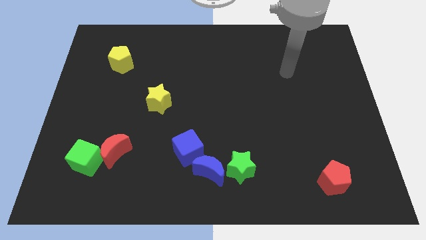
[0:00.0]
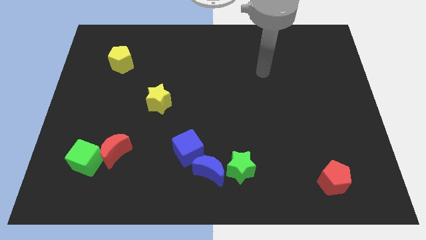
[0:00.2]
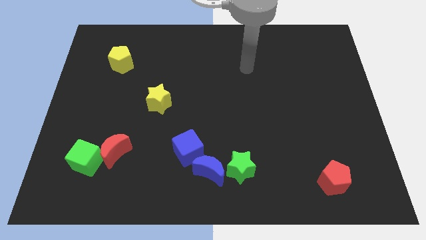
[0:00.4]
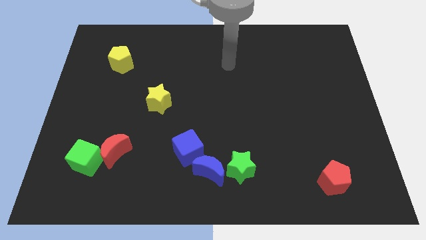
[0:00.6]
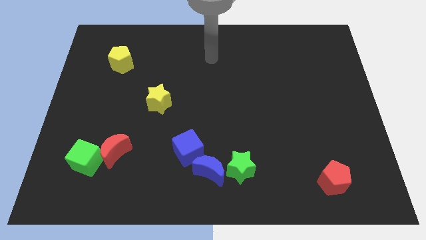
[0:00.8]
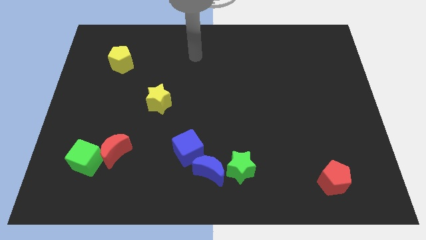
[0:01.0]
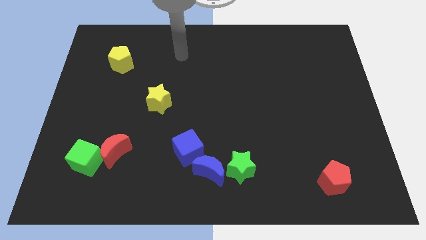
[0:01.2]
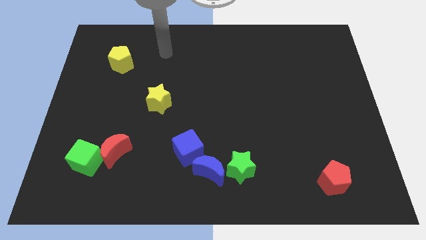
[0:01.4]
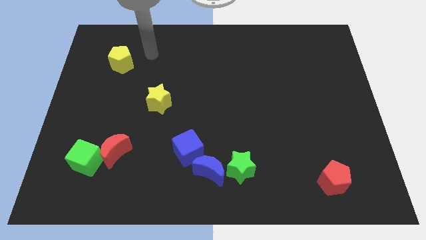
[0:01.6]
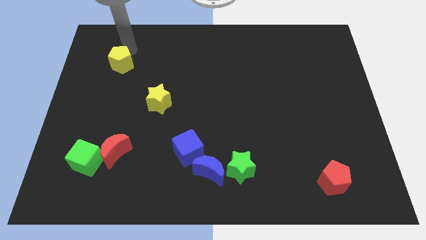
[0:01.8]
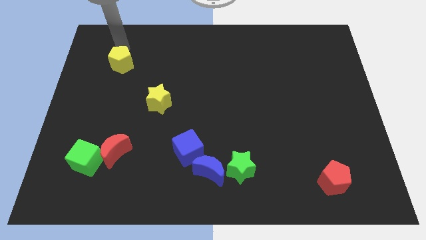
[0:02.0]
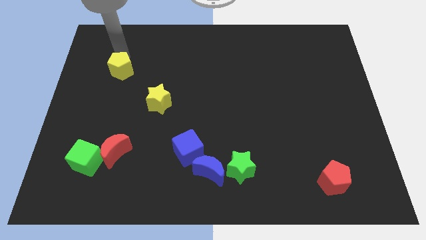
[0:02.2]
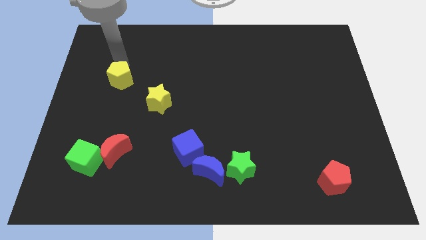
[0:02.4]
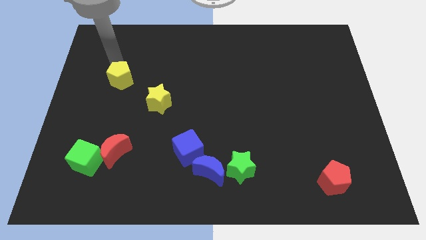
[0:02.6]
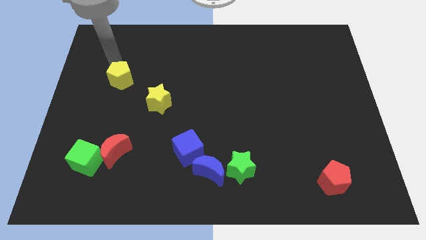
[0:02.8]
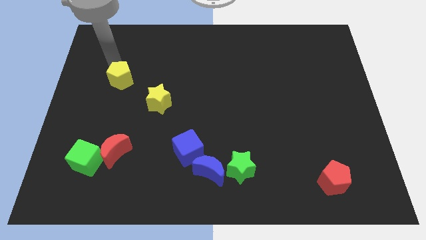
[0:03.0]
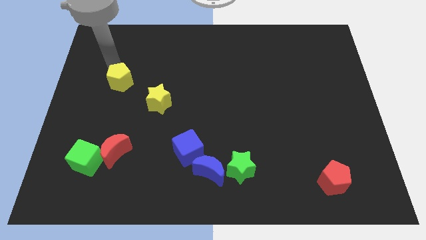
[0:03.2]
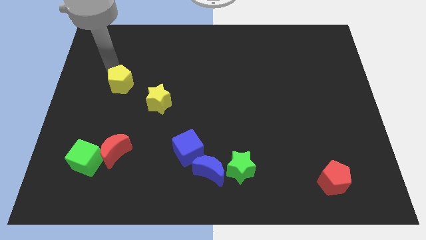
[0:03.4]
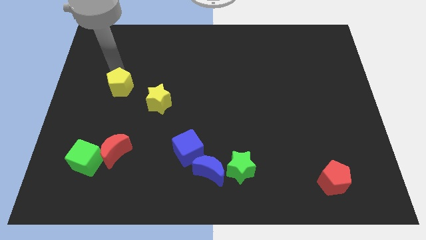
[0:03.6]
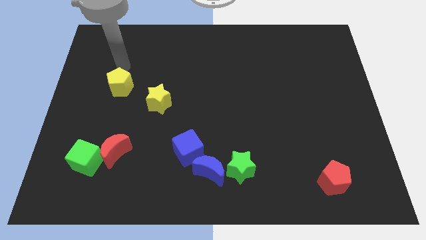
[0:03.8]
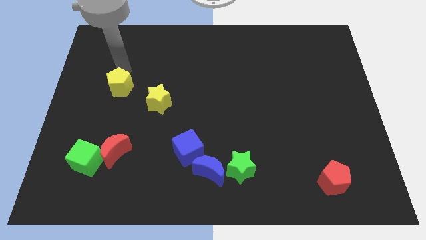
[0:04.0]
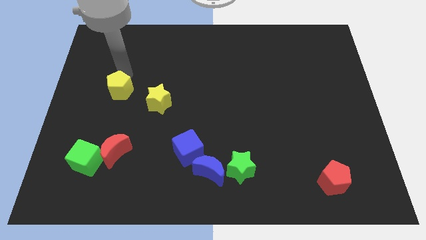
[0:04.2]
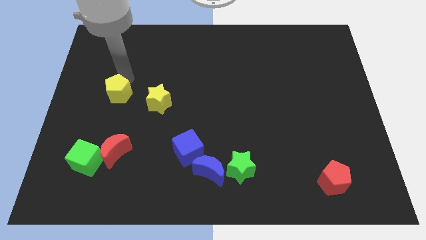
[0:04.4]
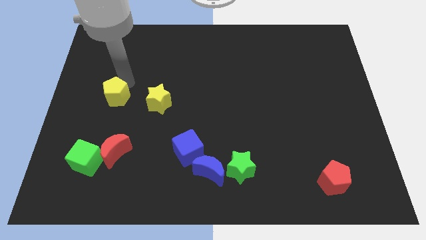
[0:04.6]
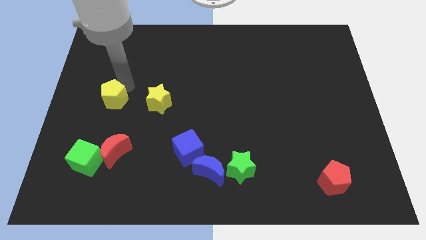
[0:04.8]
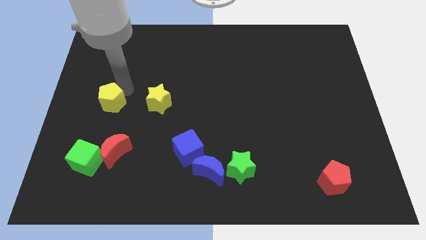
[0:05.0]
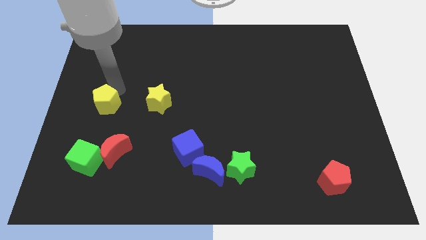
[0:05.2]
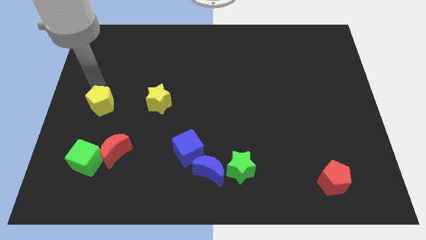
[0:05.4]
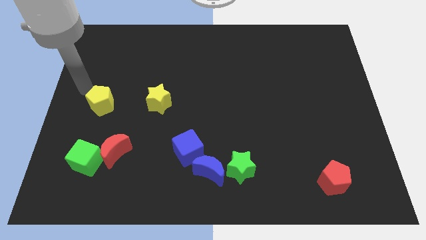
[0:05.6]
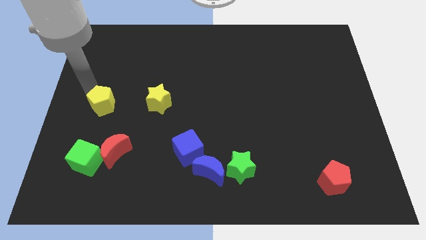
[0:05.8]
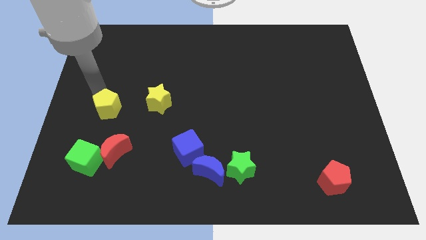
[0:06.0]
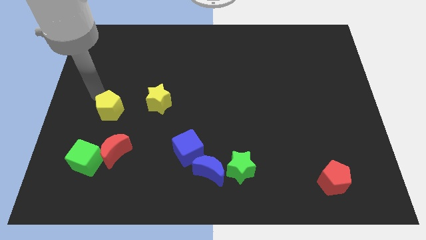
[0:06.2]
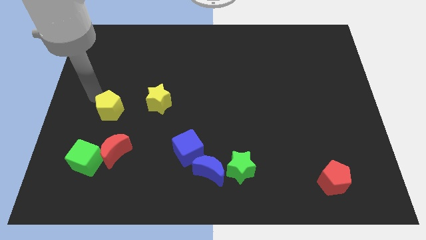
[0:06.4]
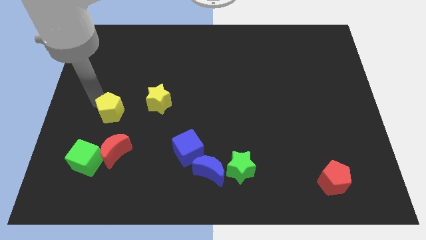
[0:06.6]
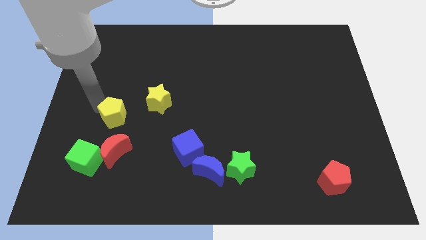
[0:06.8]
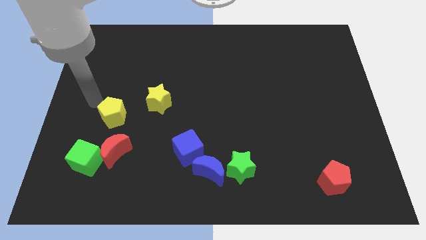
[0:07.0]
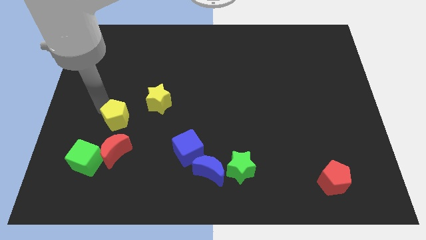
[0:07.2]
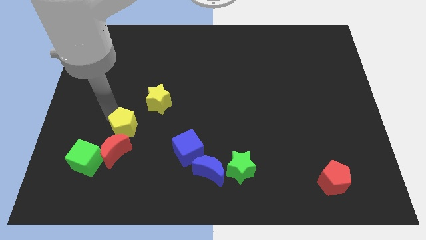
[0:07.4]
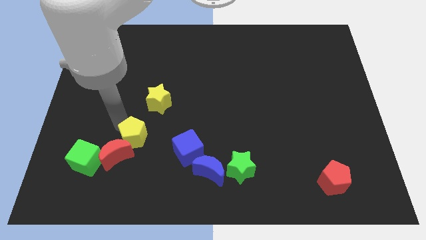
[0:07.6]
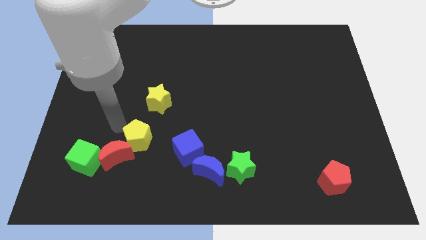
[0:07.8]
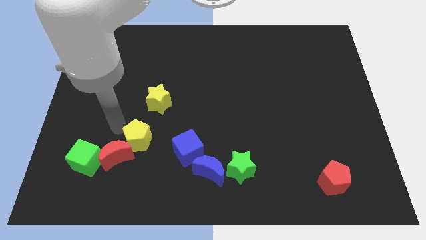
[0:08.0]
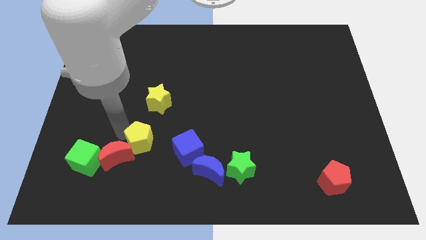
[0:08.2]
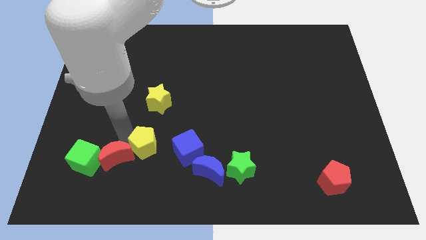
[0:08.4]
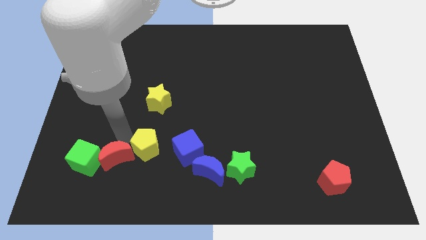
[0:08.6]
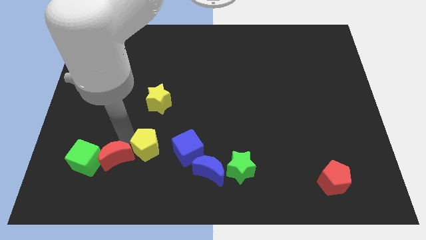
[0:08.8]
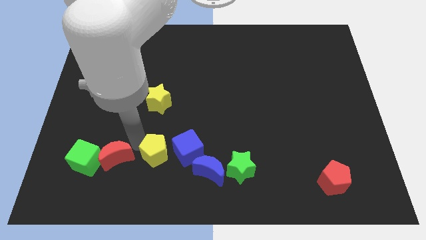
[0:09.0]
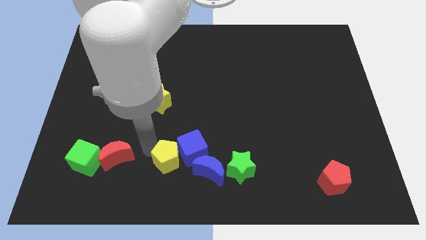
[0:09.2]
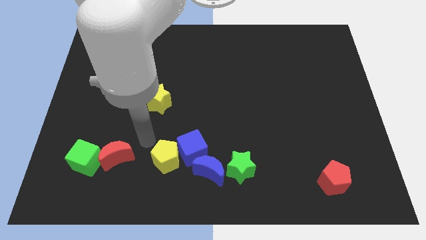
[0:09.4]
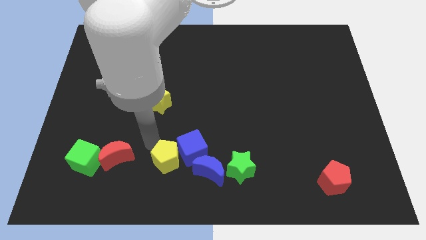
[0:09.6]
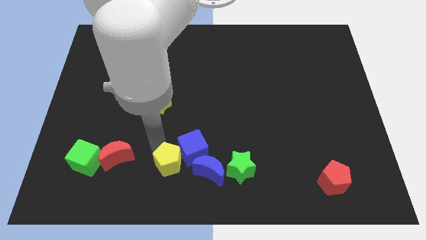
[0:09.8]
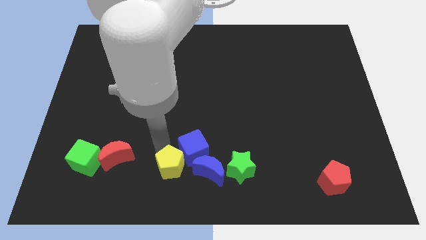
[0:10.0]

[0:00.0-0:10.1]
move the yellow pentagon to the bottom

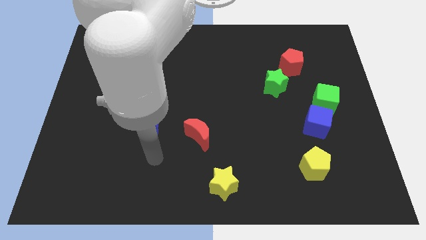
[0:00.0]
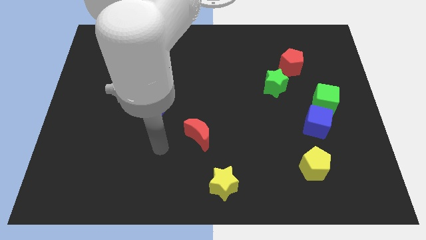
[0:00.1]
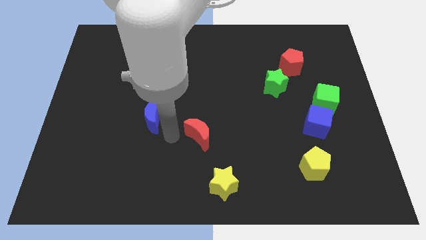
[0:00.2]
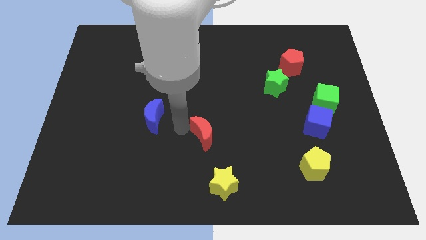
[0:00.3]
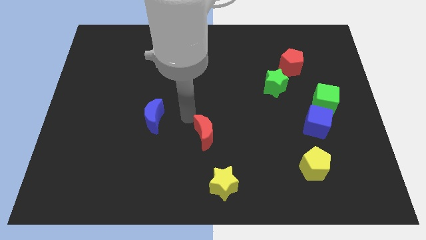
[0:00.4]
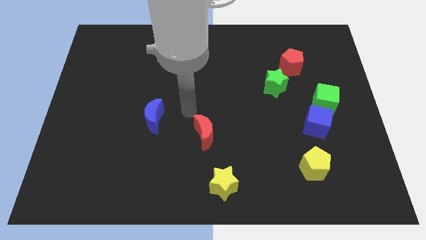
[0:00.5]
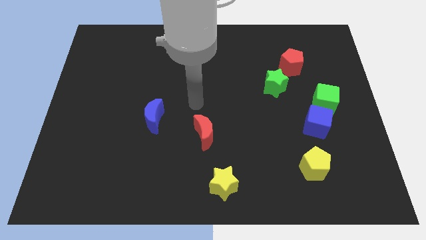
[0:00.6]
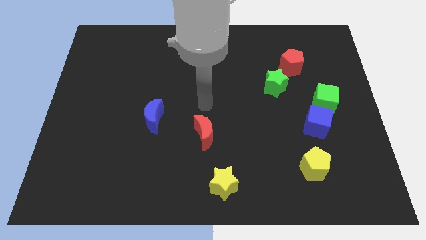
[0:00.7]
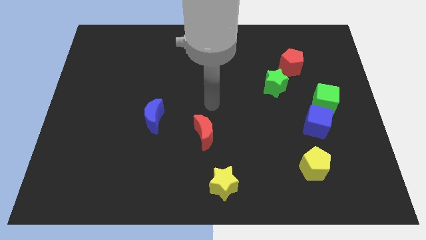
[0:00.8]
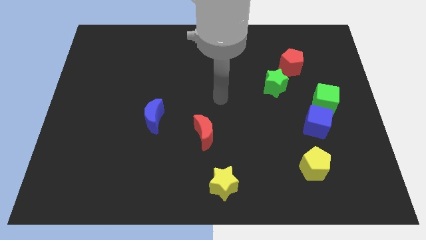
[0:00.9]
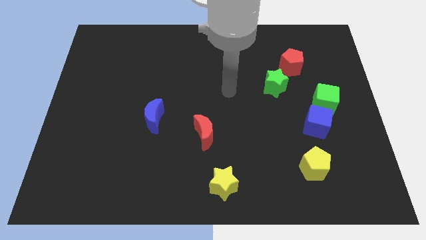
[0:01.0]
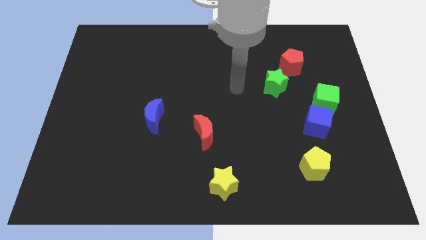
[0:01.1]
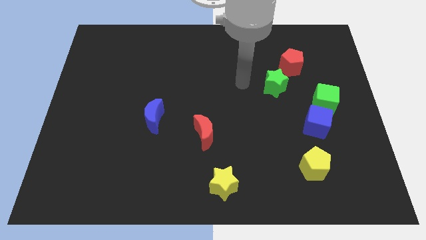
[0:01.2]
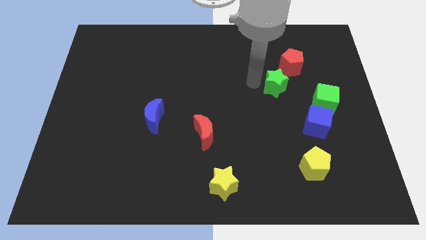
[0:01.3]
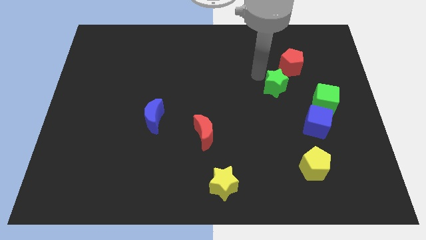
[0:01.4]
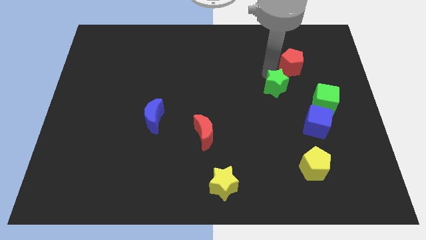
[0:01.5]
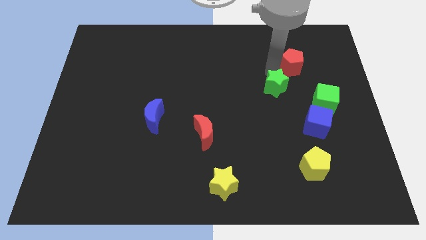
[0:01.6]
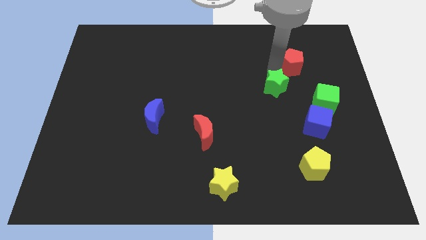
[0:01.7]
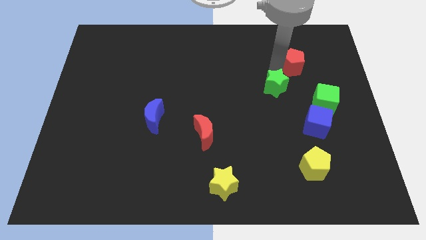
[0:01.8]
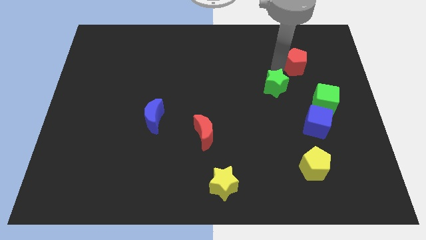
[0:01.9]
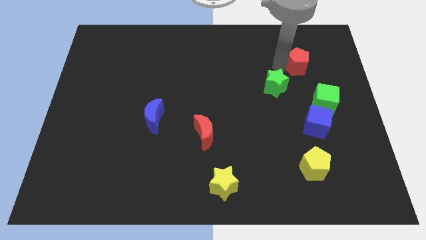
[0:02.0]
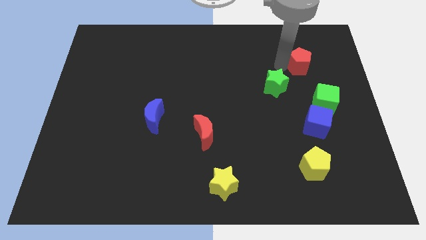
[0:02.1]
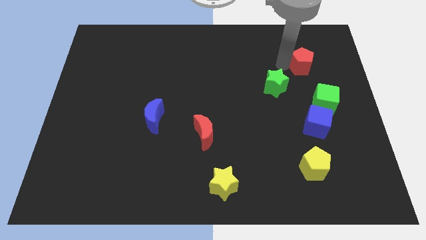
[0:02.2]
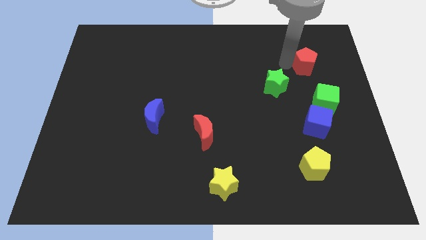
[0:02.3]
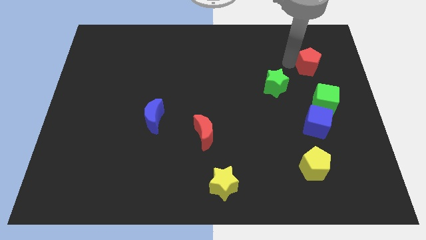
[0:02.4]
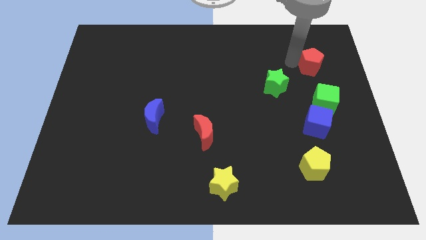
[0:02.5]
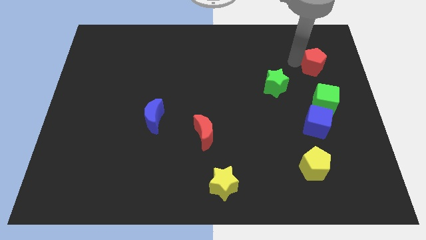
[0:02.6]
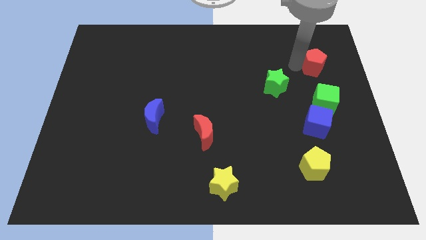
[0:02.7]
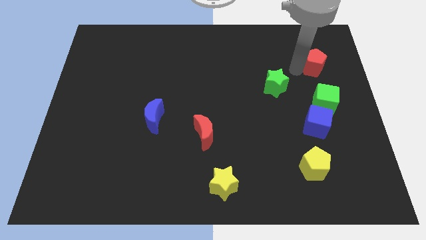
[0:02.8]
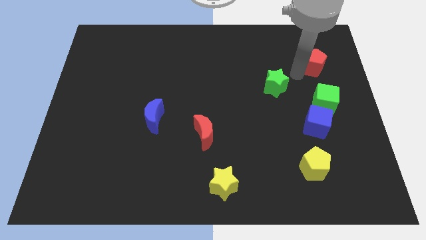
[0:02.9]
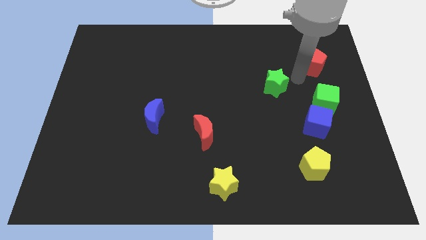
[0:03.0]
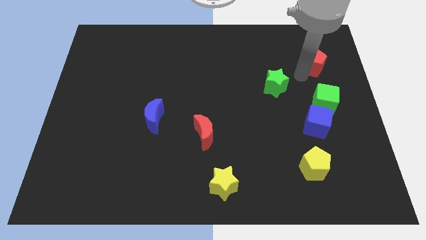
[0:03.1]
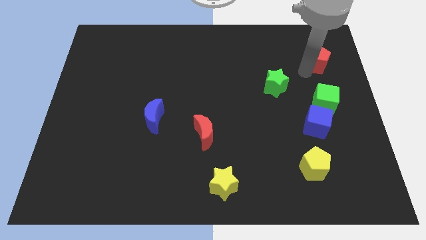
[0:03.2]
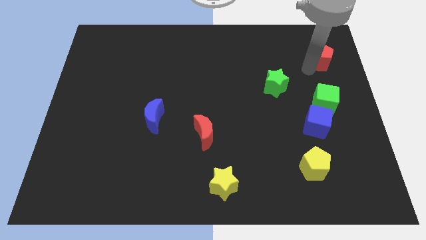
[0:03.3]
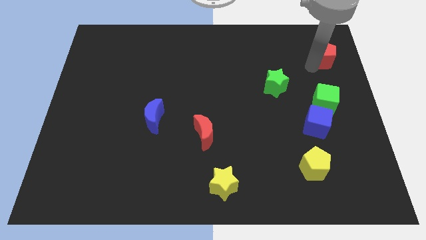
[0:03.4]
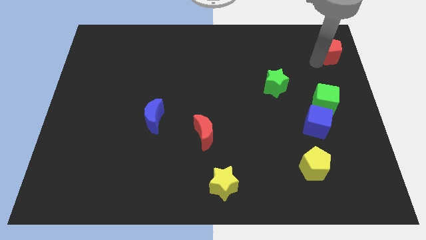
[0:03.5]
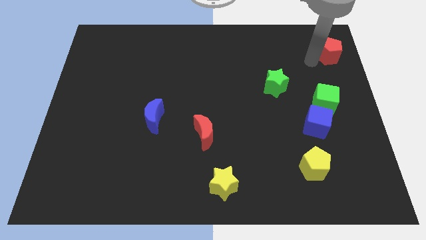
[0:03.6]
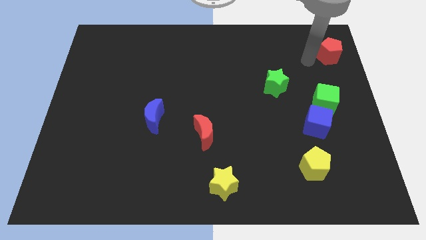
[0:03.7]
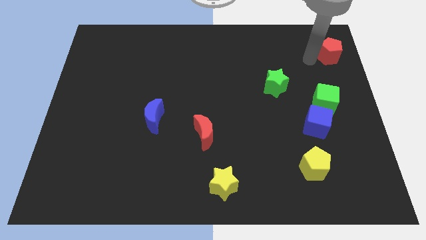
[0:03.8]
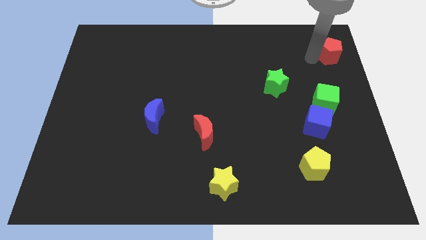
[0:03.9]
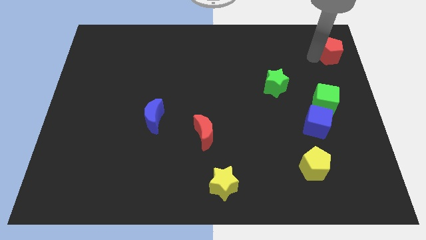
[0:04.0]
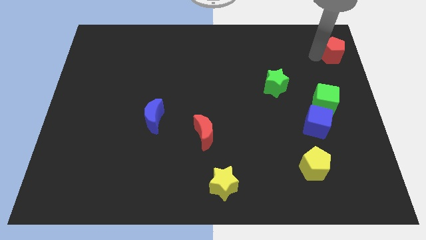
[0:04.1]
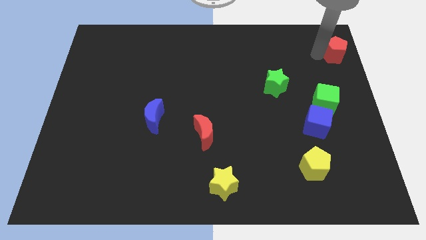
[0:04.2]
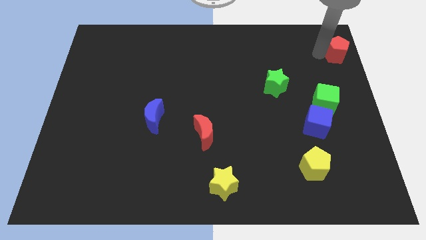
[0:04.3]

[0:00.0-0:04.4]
move the red pentagon to the top right corner
